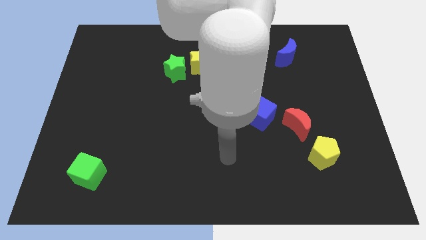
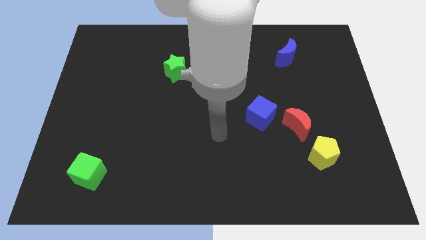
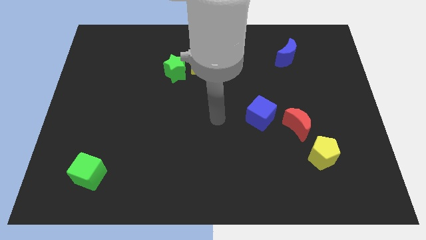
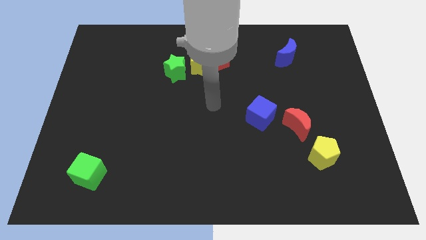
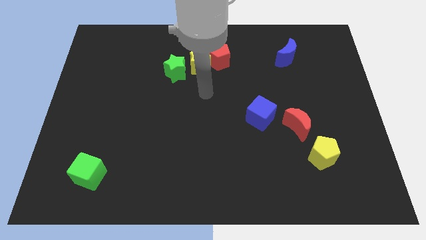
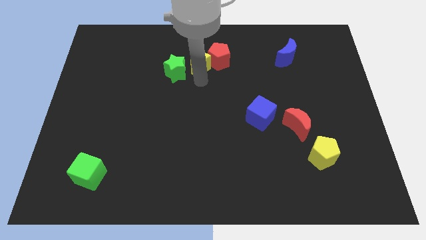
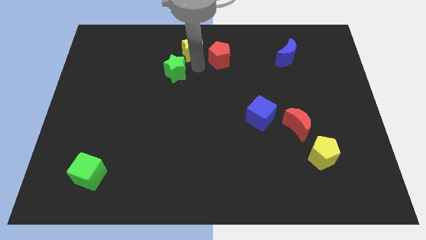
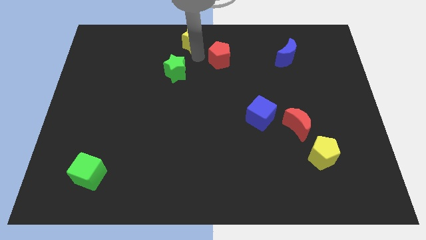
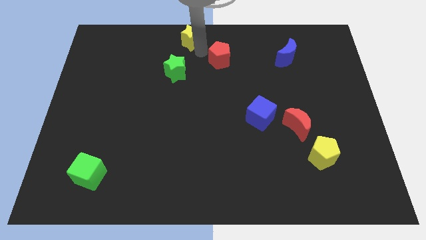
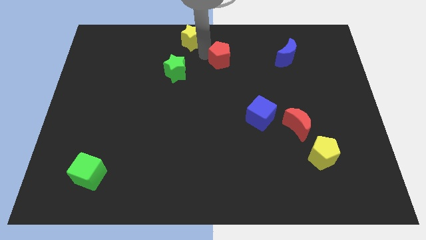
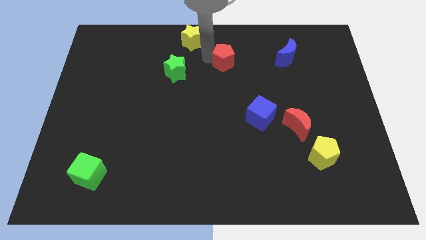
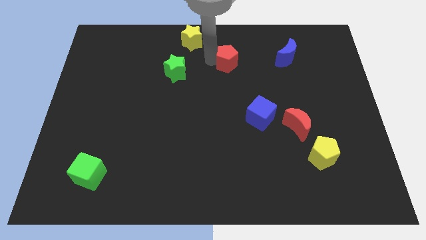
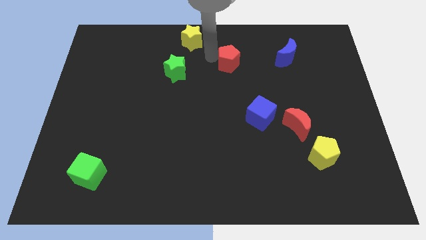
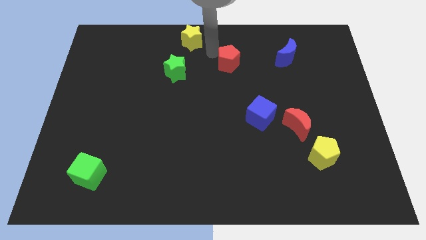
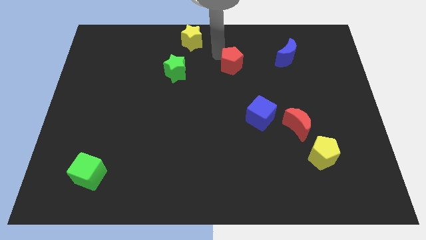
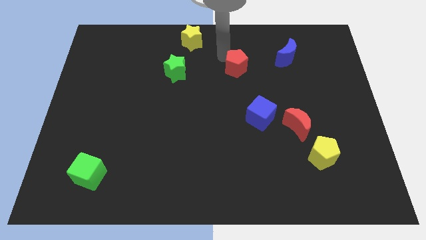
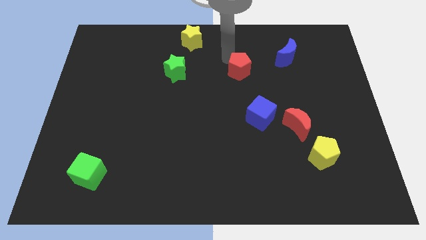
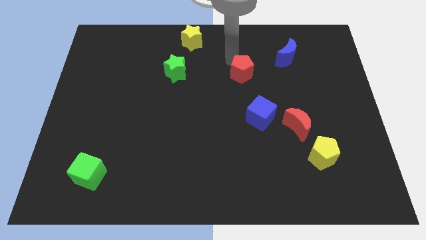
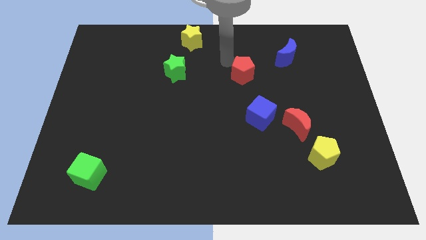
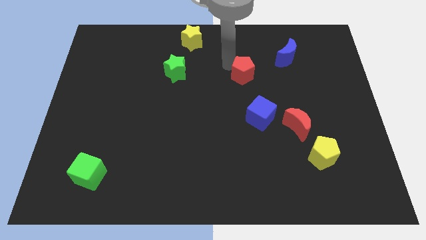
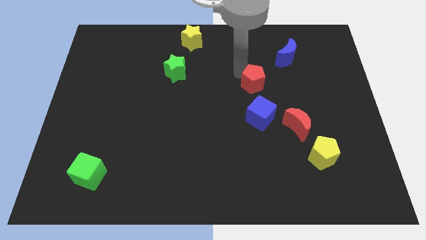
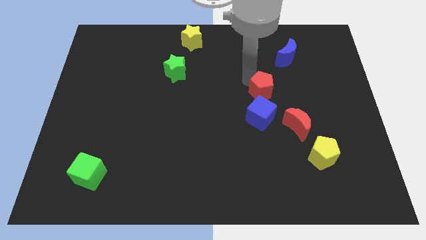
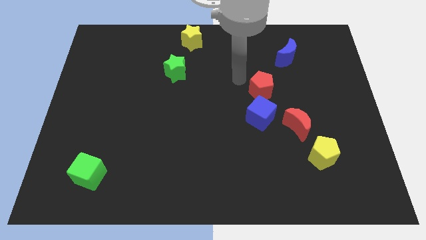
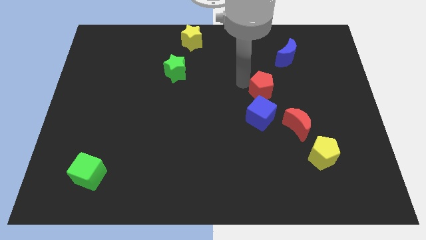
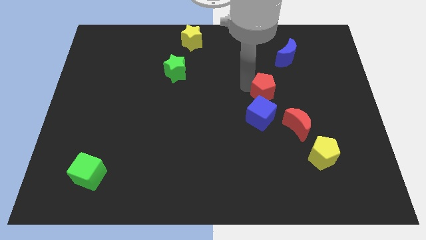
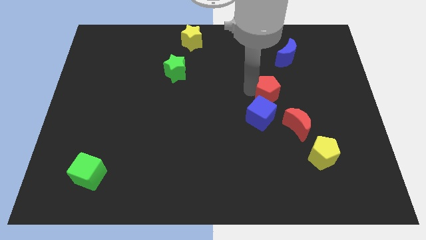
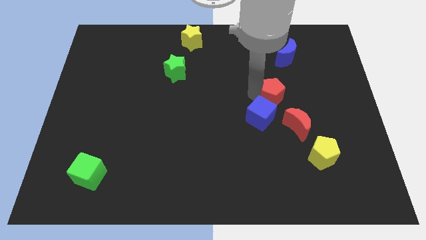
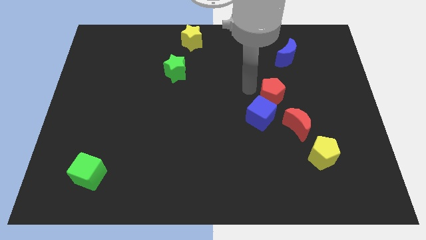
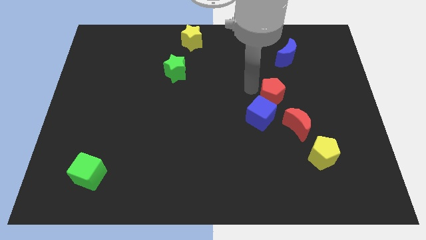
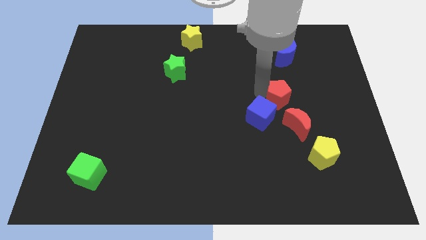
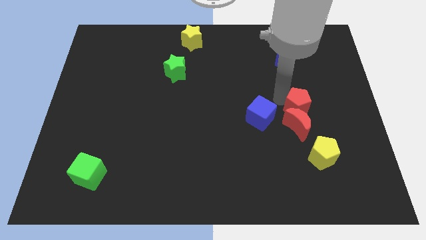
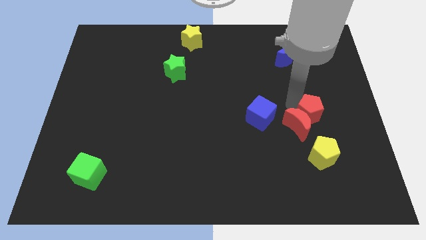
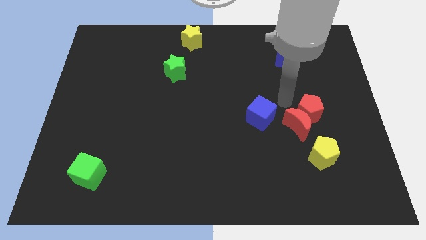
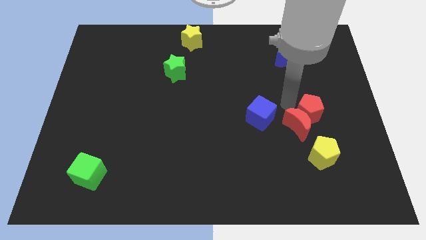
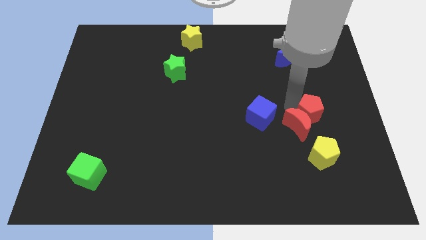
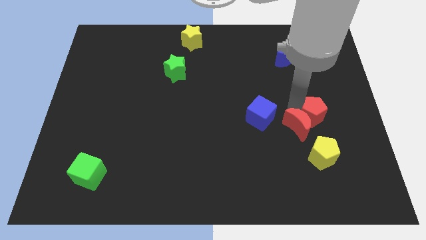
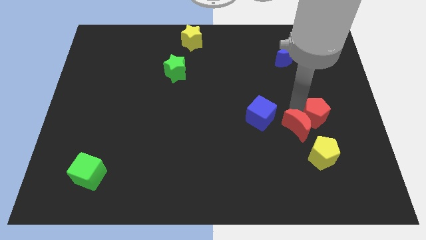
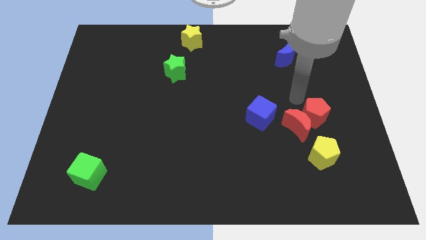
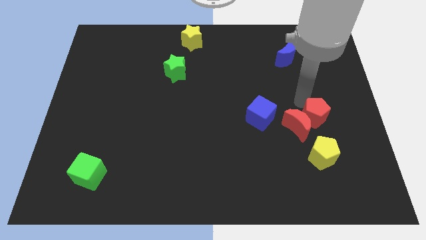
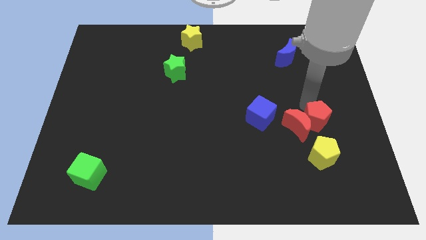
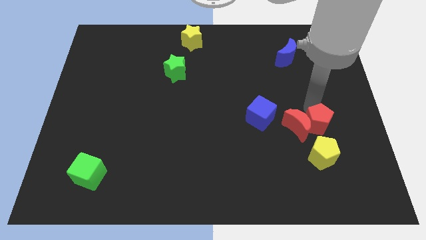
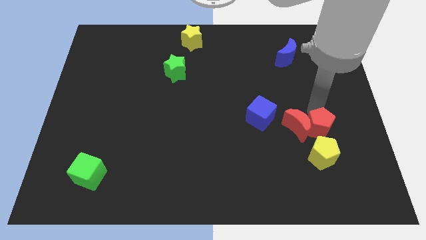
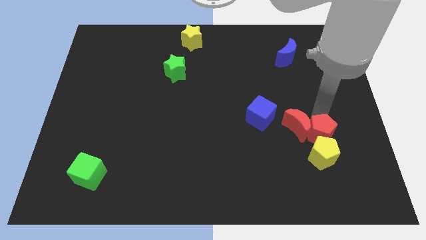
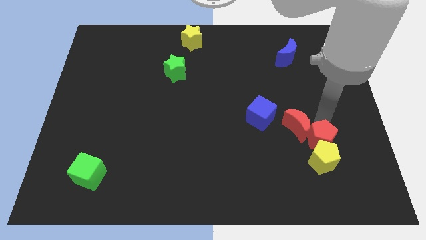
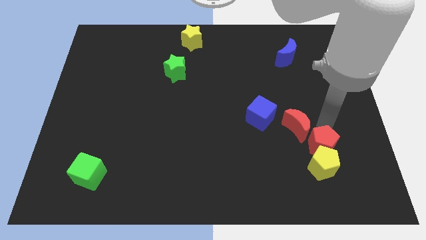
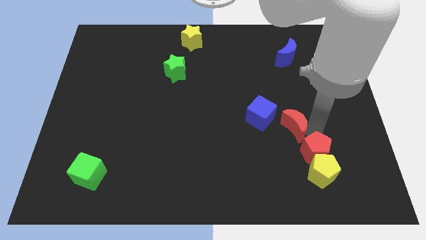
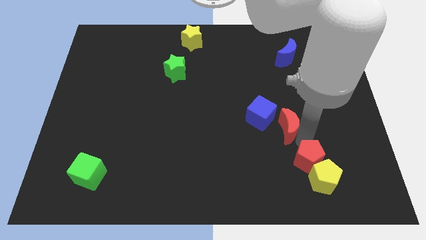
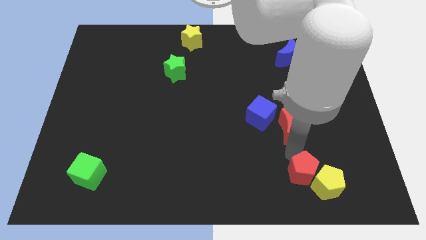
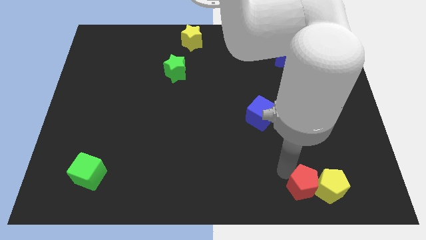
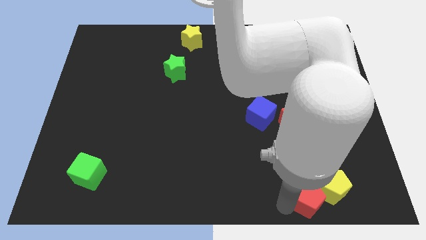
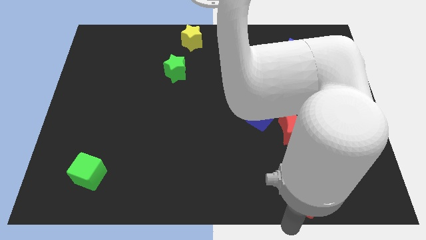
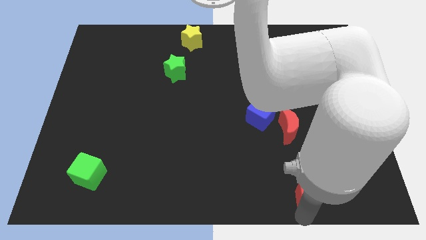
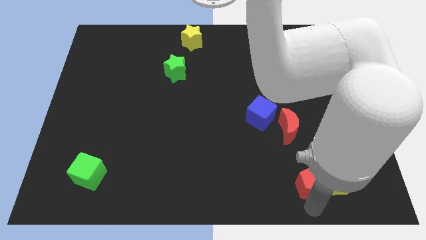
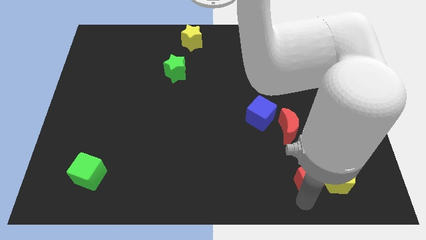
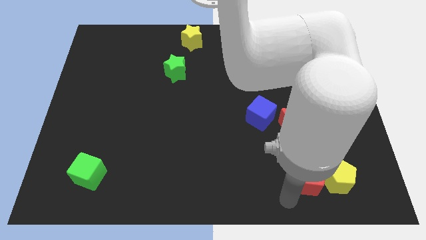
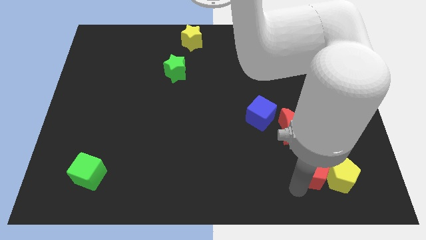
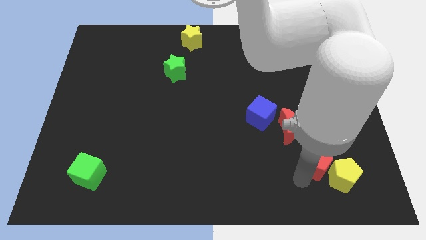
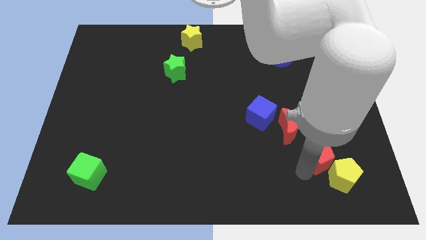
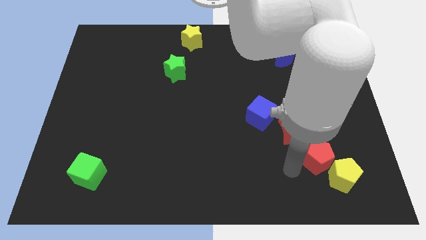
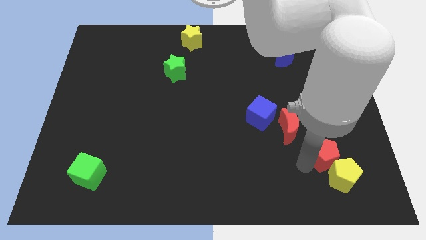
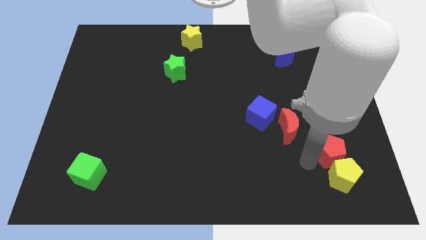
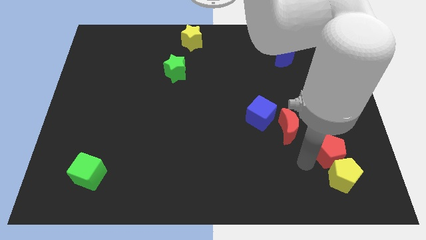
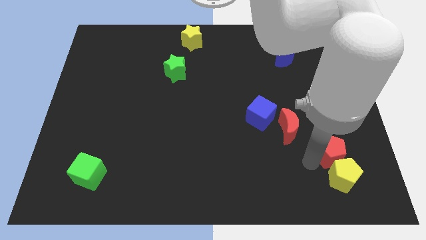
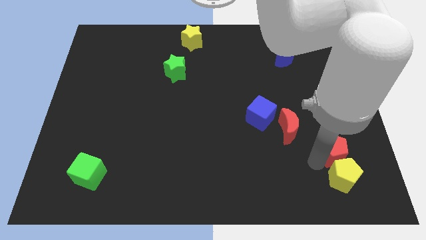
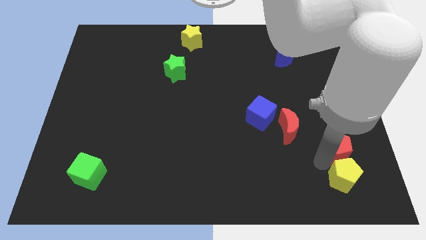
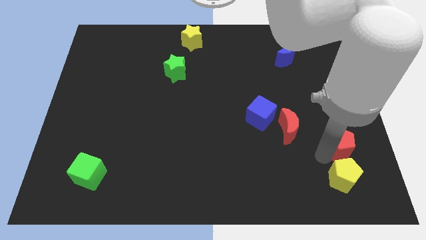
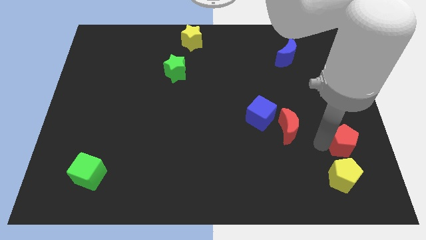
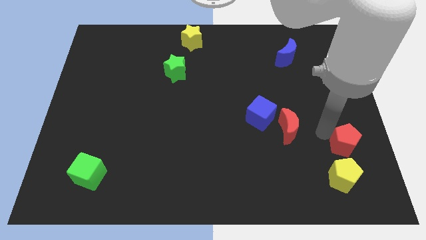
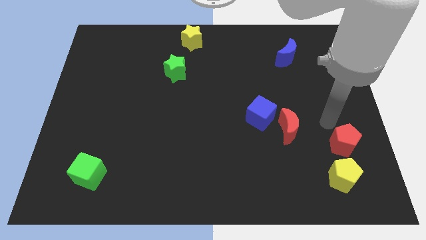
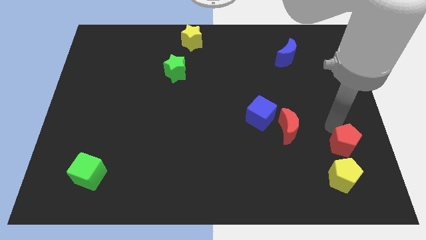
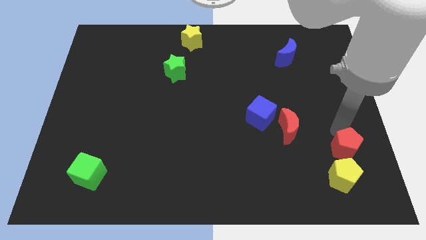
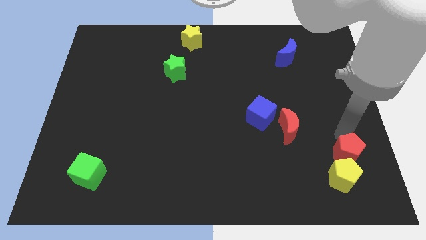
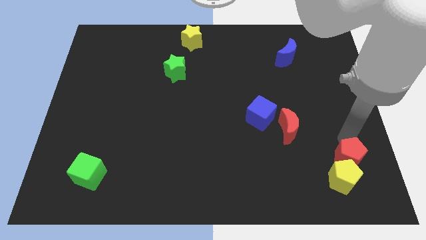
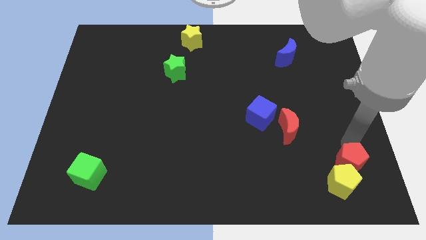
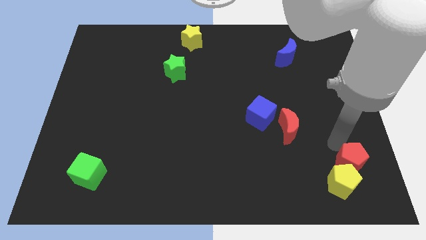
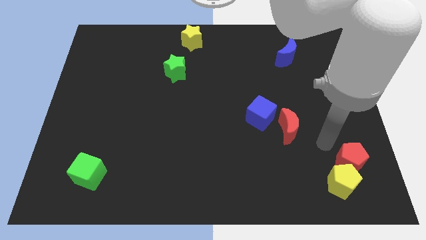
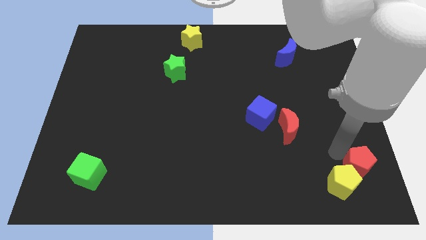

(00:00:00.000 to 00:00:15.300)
slide the red pentagon to the lower right corner
